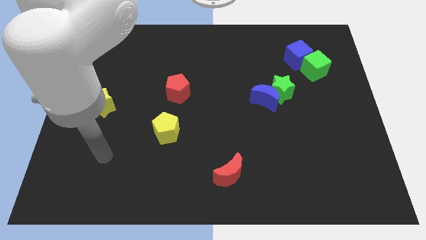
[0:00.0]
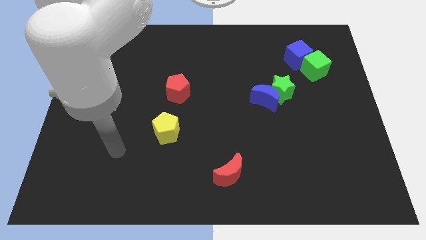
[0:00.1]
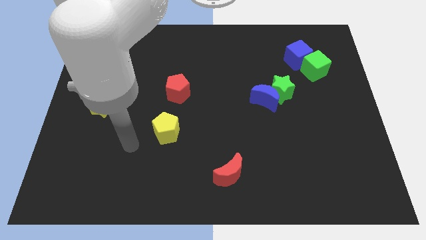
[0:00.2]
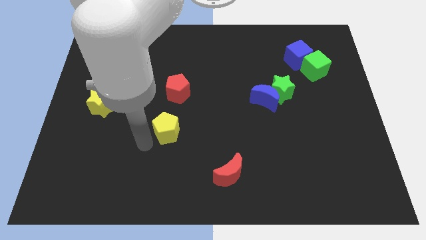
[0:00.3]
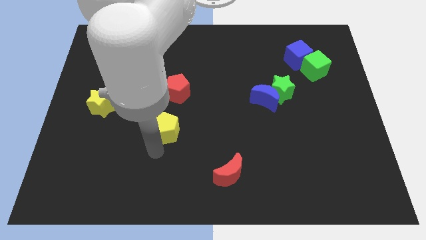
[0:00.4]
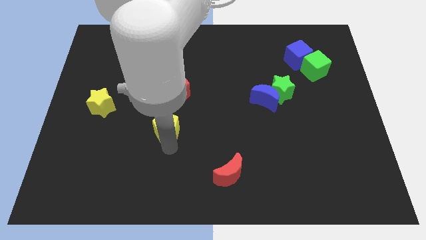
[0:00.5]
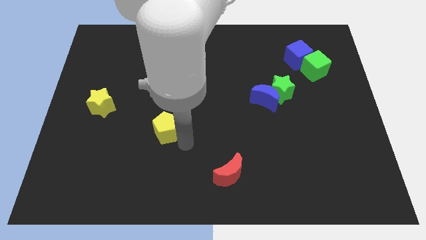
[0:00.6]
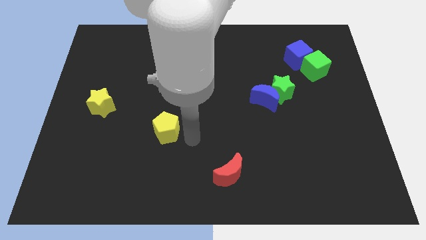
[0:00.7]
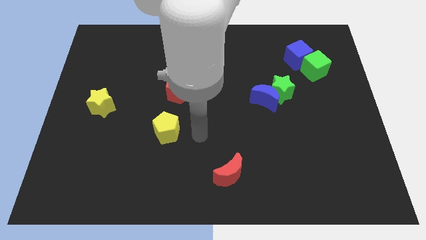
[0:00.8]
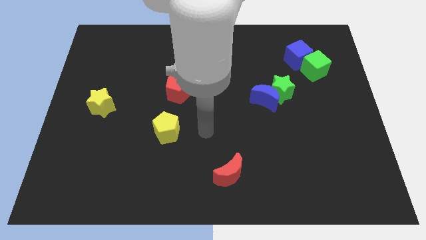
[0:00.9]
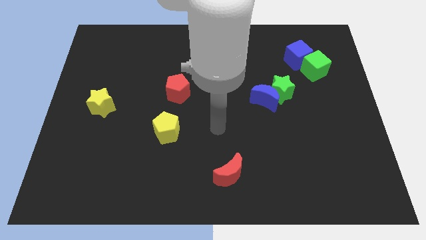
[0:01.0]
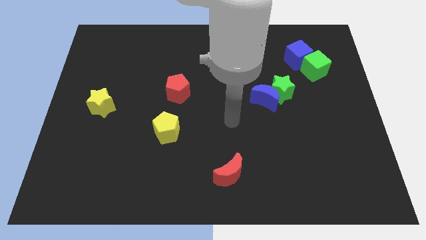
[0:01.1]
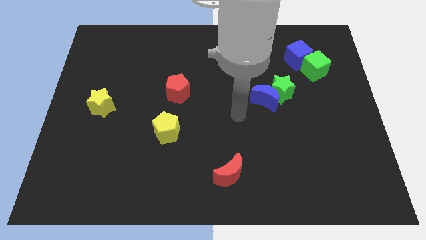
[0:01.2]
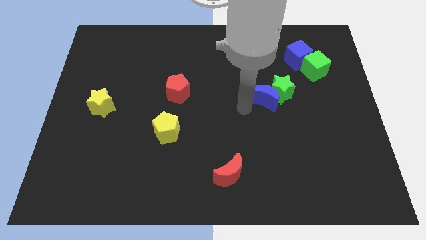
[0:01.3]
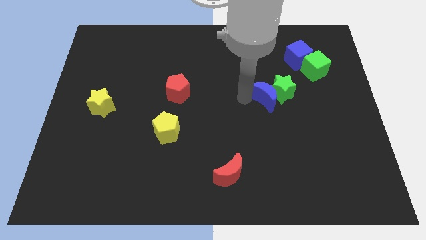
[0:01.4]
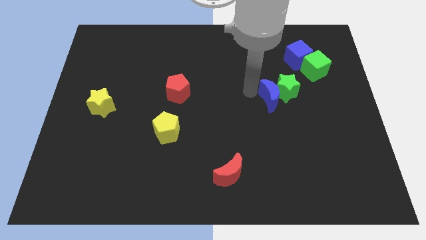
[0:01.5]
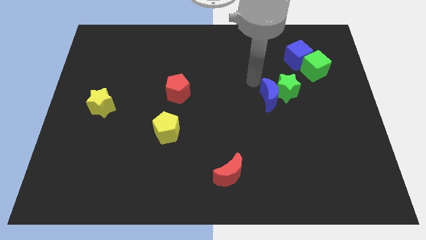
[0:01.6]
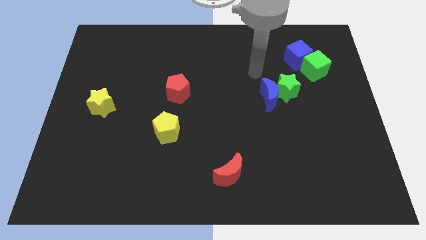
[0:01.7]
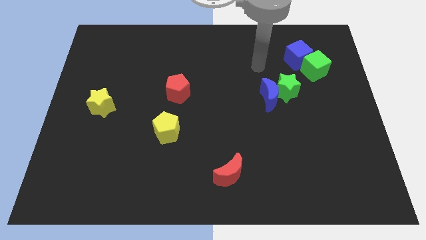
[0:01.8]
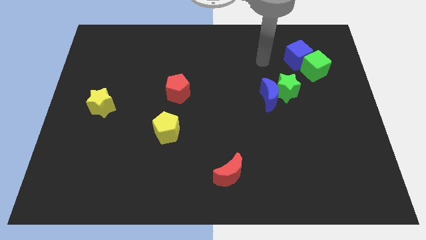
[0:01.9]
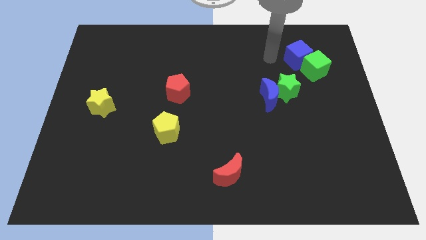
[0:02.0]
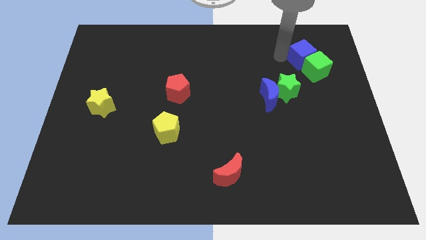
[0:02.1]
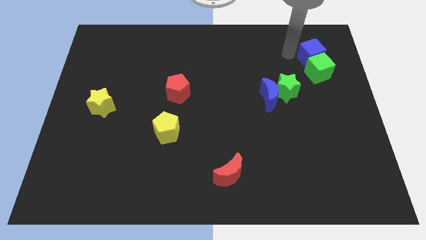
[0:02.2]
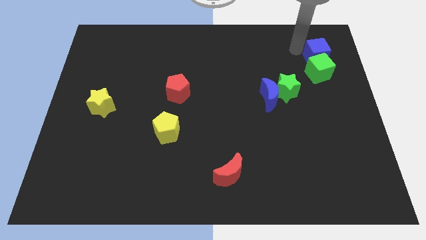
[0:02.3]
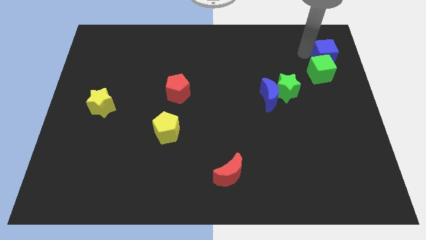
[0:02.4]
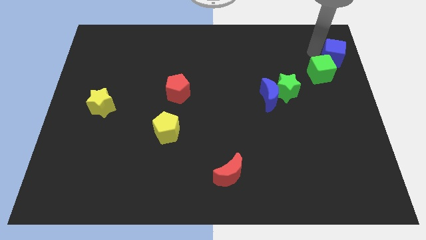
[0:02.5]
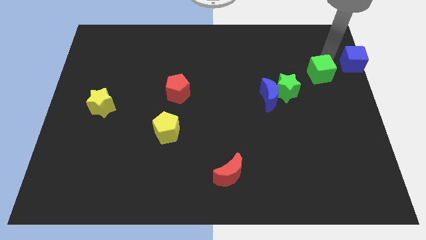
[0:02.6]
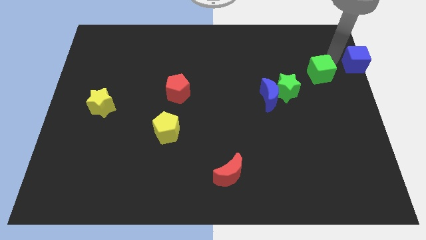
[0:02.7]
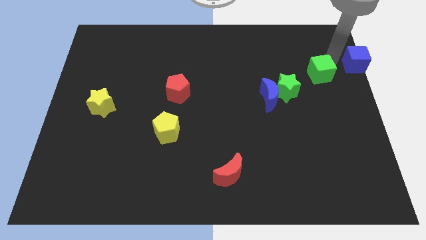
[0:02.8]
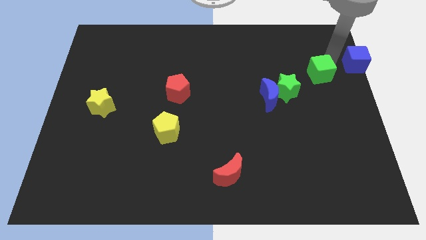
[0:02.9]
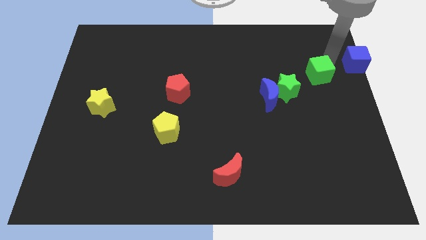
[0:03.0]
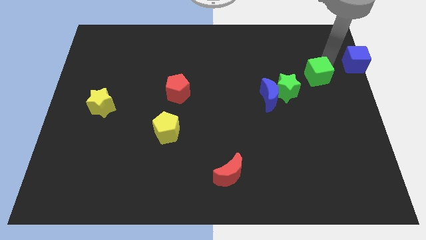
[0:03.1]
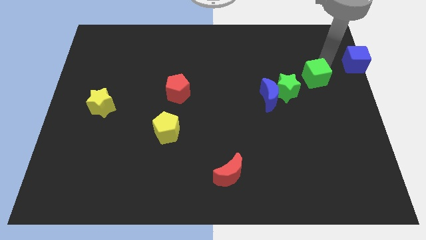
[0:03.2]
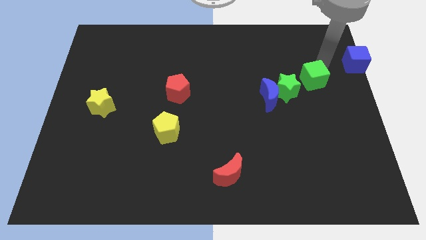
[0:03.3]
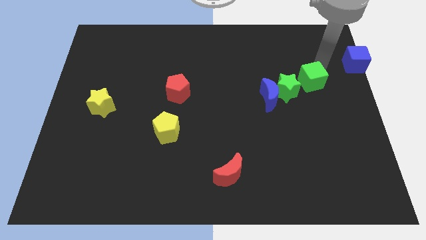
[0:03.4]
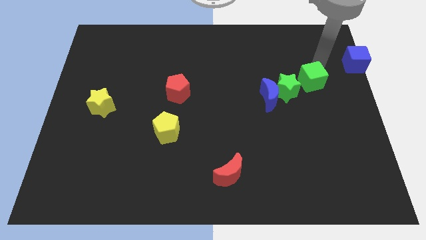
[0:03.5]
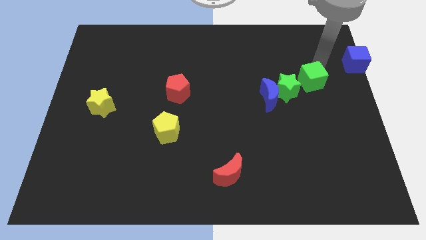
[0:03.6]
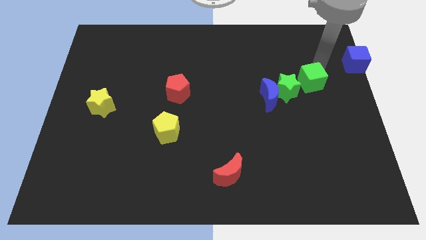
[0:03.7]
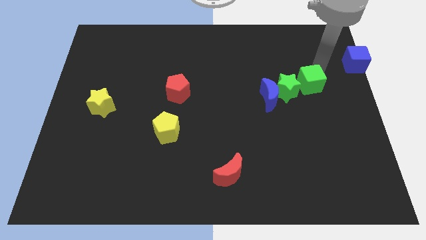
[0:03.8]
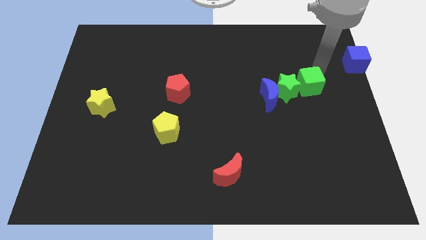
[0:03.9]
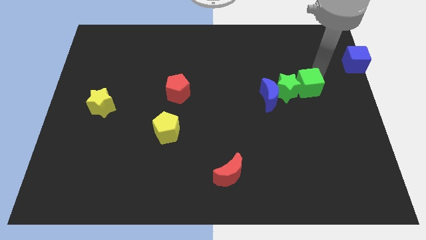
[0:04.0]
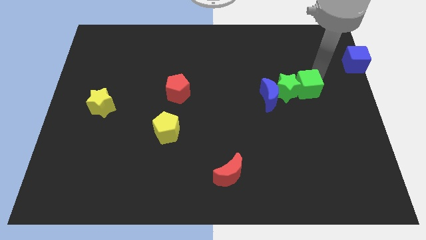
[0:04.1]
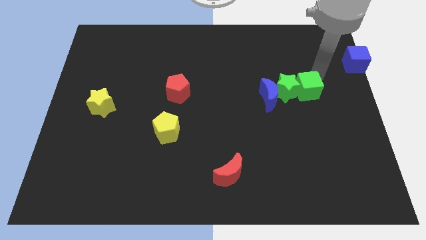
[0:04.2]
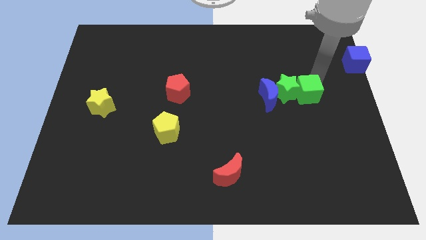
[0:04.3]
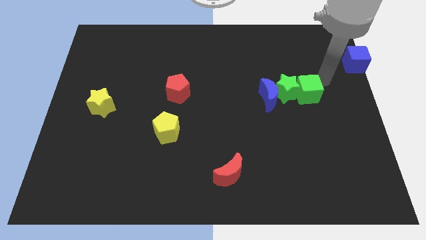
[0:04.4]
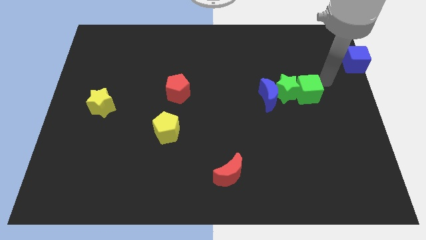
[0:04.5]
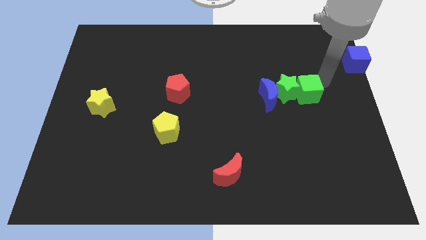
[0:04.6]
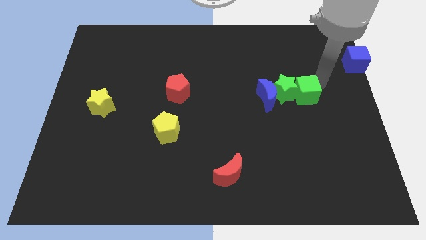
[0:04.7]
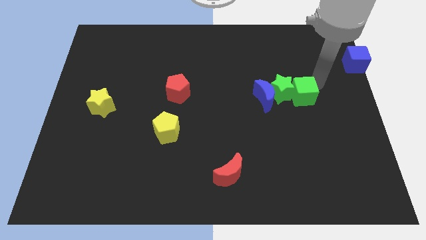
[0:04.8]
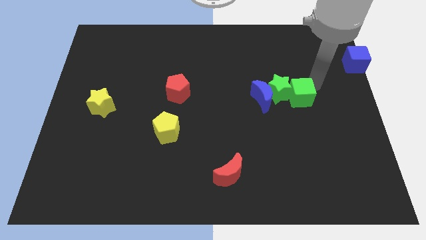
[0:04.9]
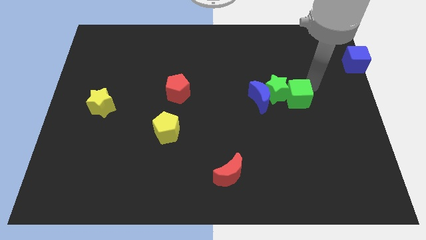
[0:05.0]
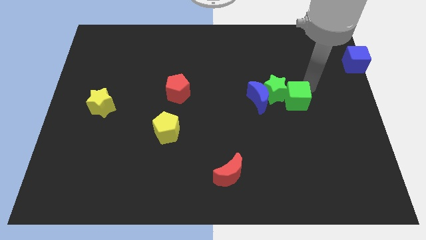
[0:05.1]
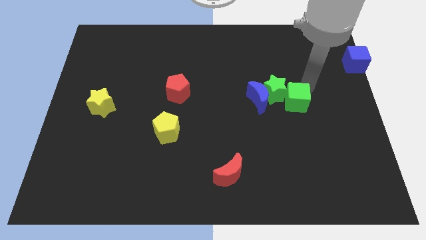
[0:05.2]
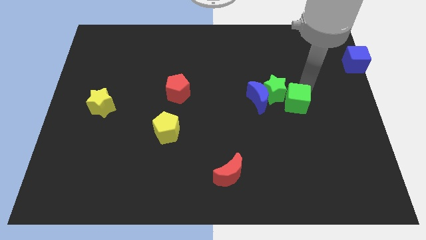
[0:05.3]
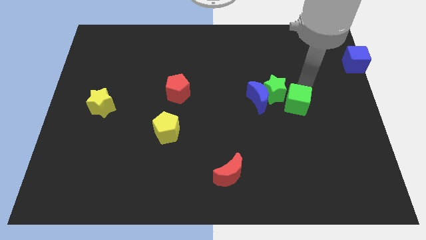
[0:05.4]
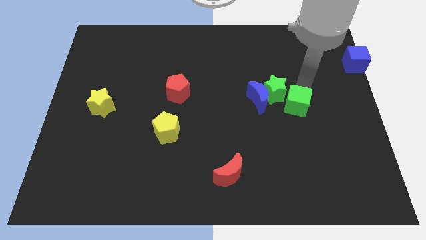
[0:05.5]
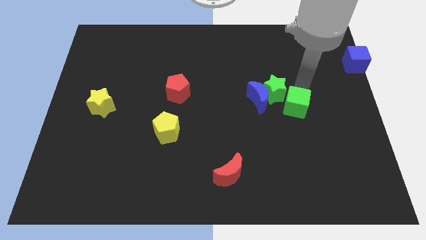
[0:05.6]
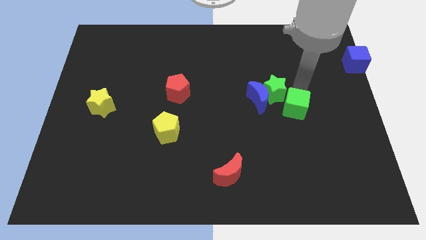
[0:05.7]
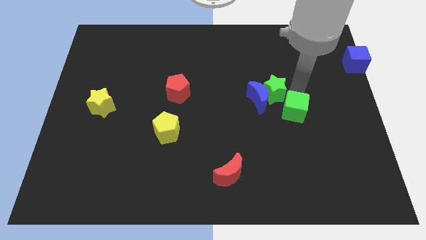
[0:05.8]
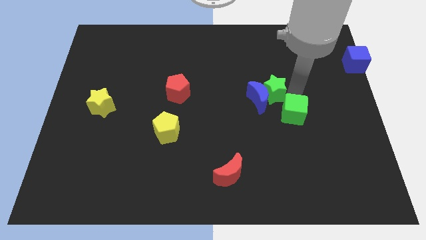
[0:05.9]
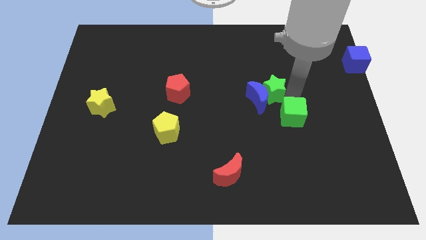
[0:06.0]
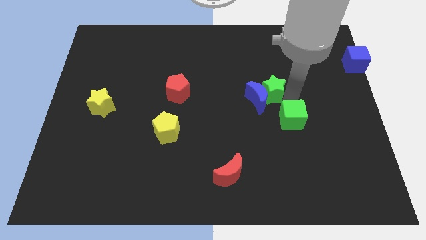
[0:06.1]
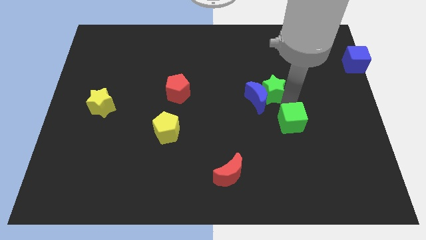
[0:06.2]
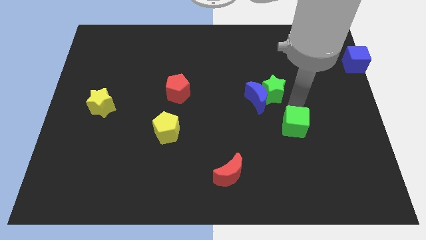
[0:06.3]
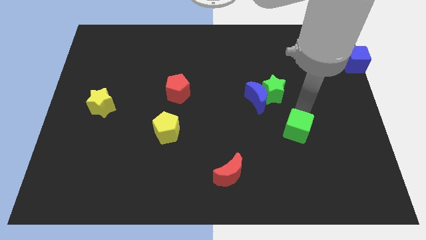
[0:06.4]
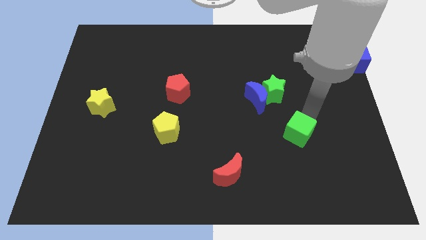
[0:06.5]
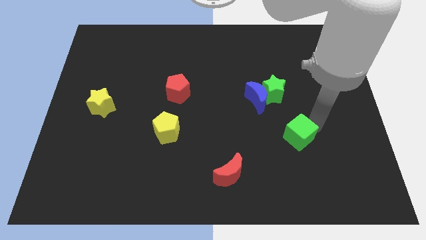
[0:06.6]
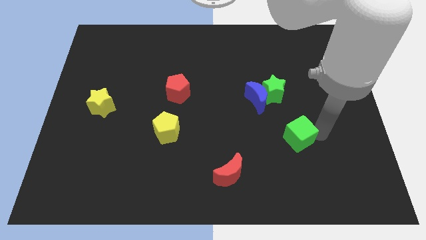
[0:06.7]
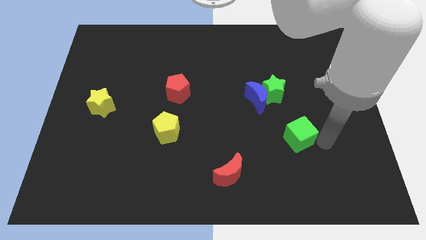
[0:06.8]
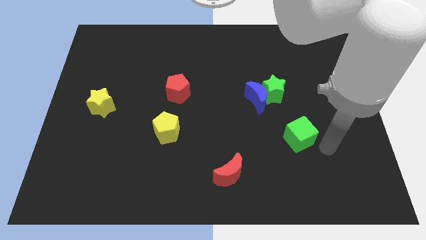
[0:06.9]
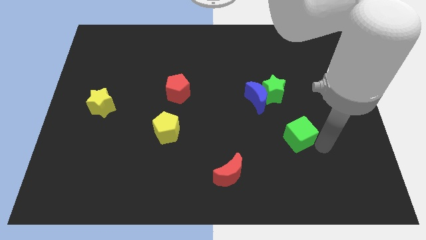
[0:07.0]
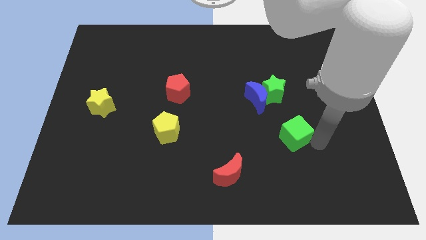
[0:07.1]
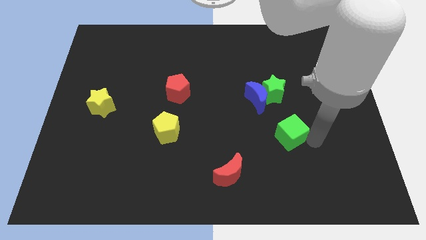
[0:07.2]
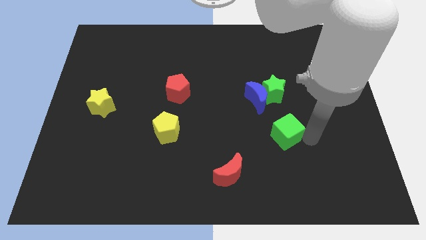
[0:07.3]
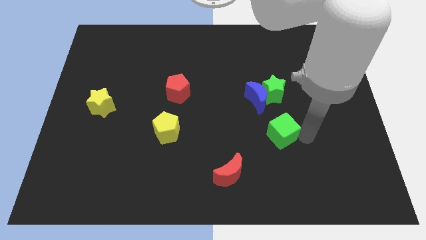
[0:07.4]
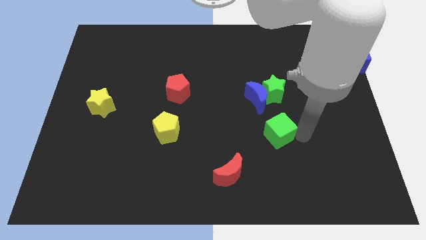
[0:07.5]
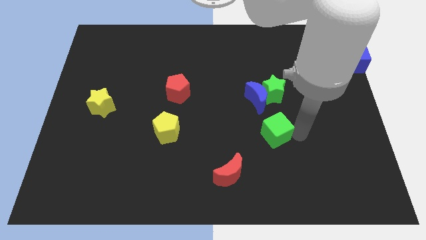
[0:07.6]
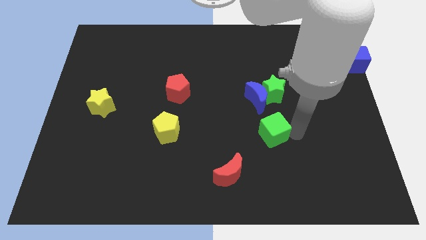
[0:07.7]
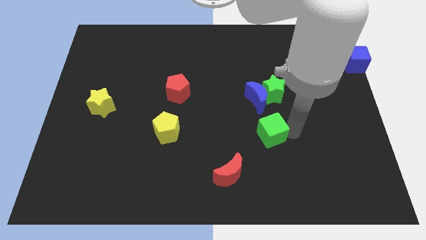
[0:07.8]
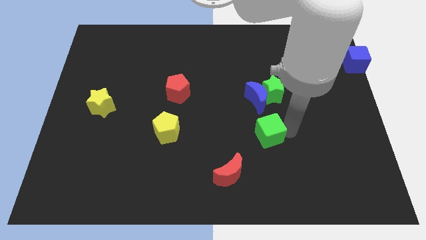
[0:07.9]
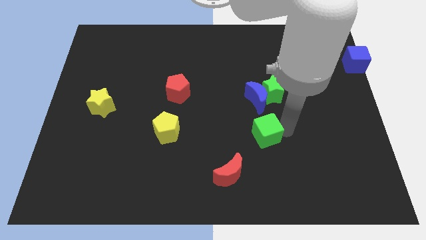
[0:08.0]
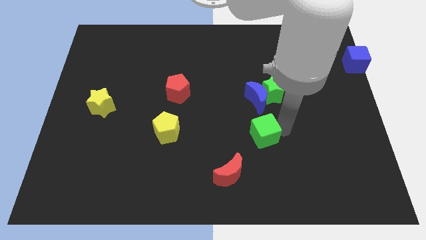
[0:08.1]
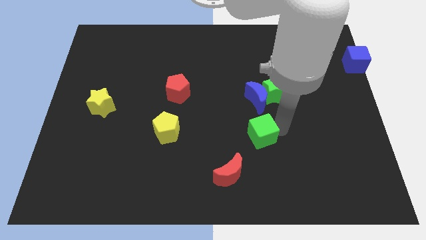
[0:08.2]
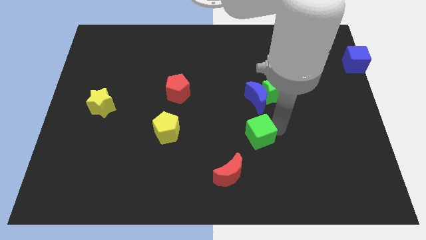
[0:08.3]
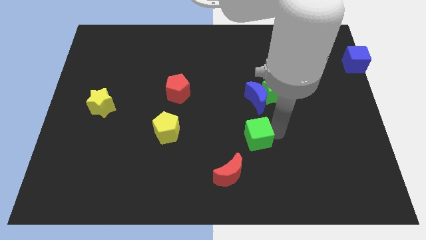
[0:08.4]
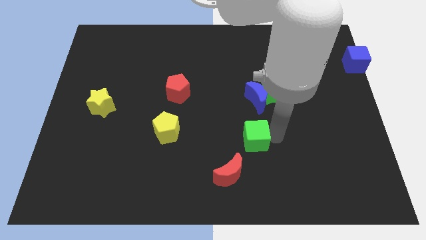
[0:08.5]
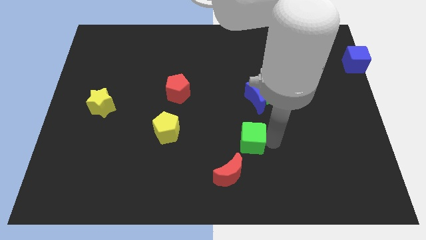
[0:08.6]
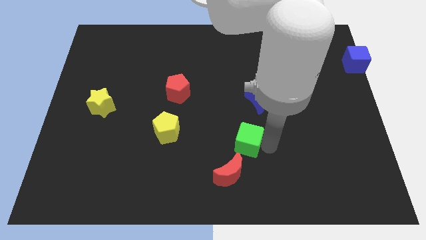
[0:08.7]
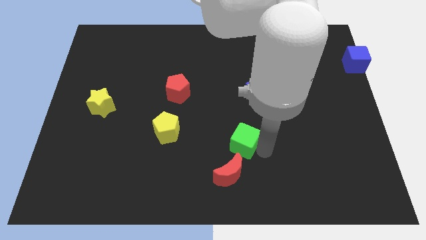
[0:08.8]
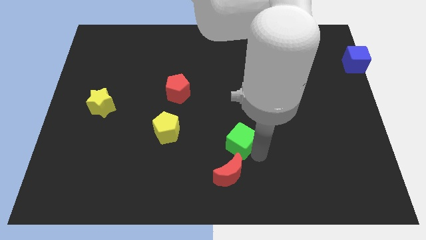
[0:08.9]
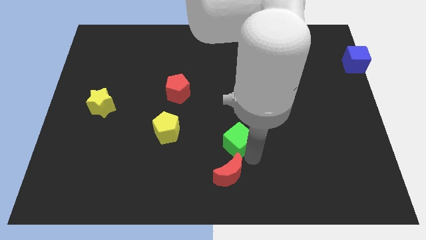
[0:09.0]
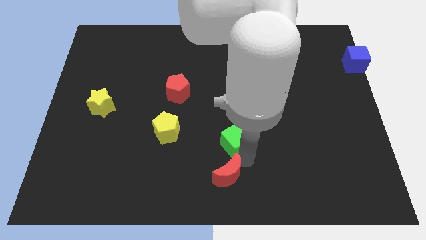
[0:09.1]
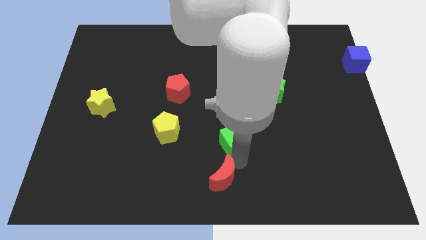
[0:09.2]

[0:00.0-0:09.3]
push the green cube right of the yellow pentagon
